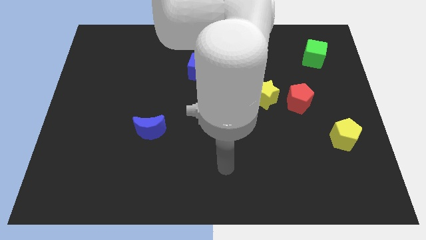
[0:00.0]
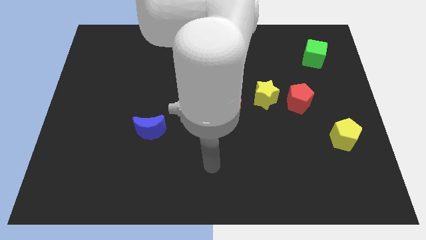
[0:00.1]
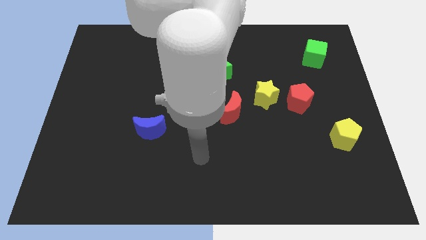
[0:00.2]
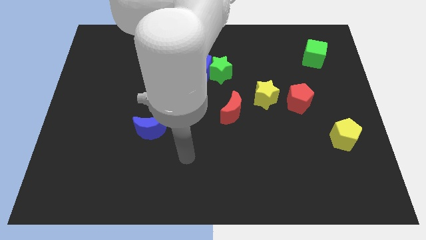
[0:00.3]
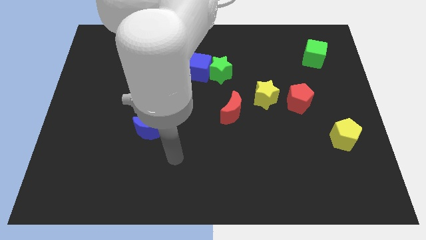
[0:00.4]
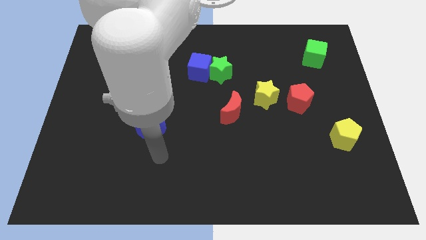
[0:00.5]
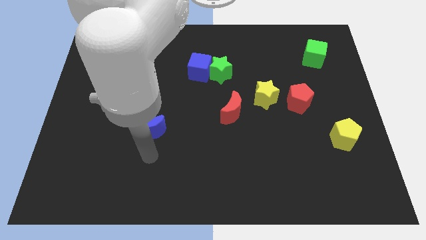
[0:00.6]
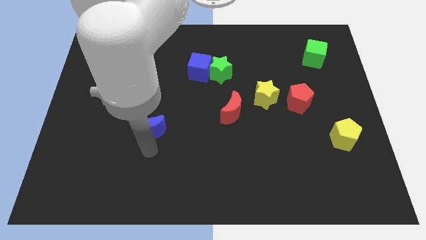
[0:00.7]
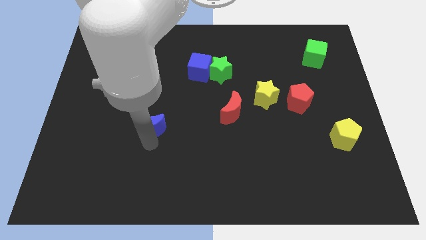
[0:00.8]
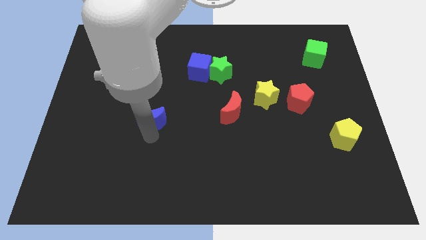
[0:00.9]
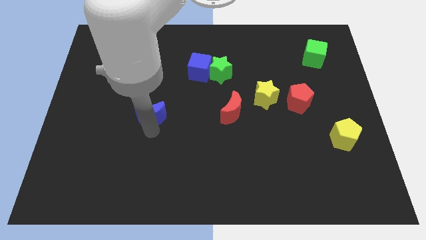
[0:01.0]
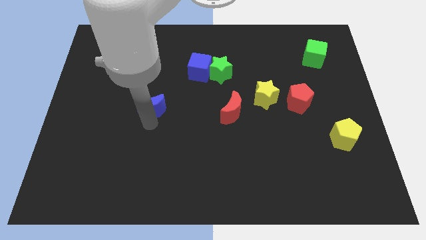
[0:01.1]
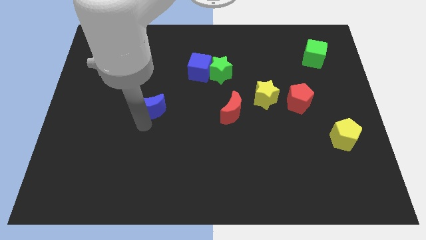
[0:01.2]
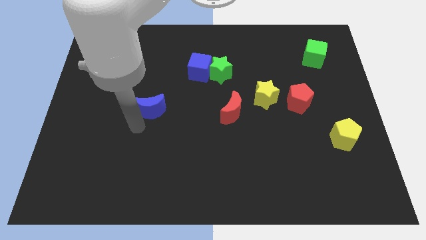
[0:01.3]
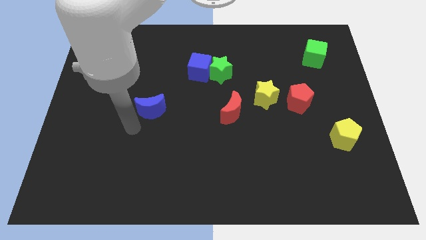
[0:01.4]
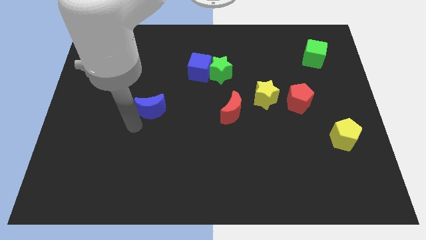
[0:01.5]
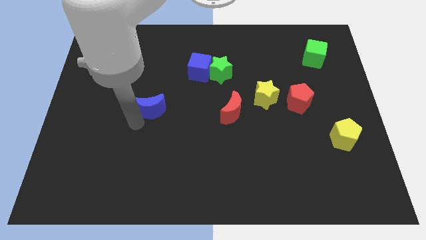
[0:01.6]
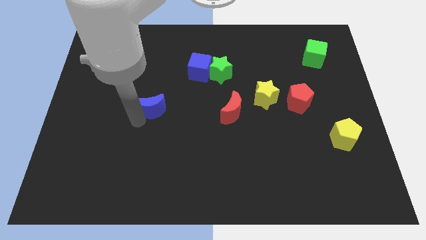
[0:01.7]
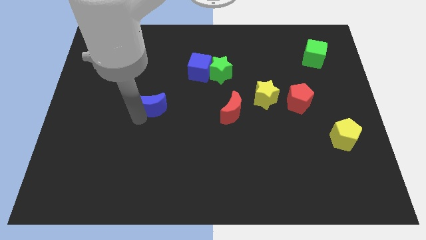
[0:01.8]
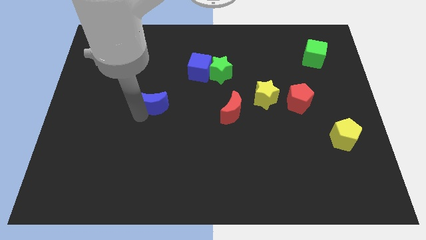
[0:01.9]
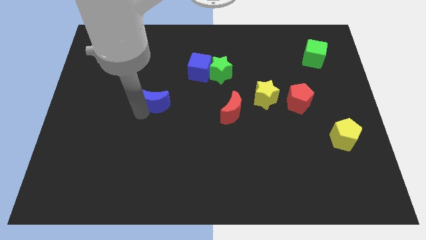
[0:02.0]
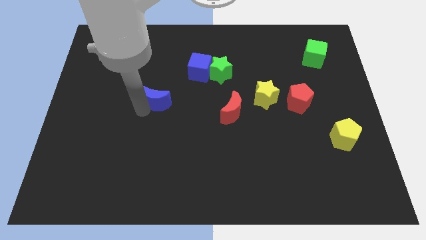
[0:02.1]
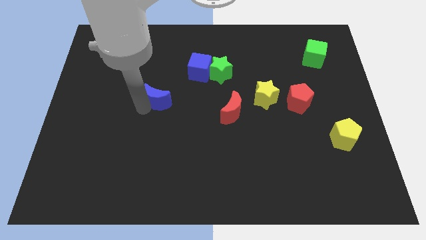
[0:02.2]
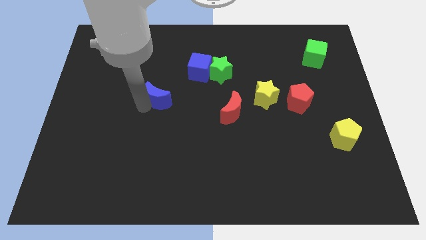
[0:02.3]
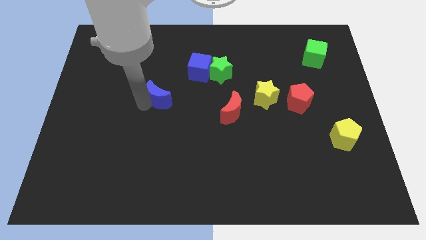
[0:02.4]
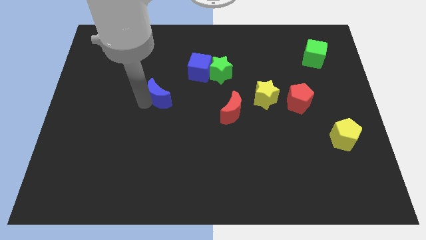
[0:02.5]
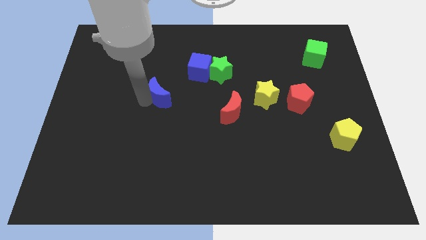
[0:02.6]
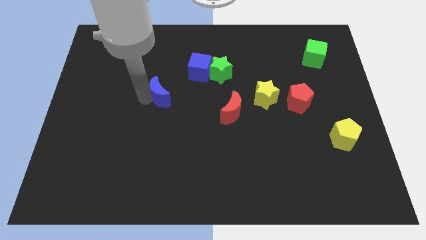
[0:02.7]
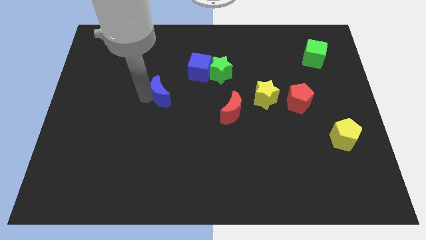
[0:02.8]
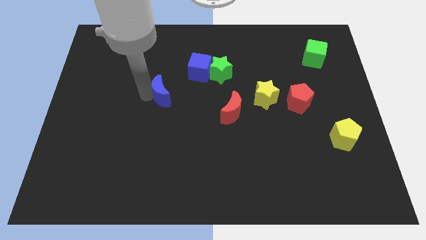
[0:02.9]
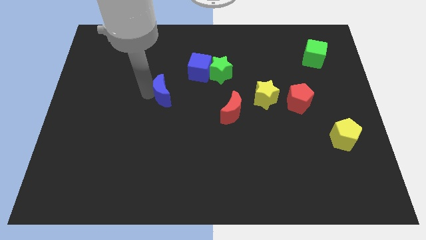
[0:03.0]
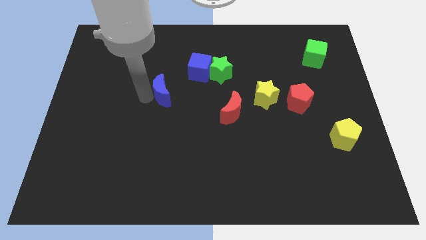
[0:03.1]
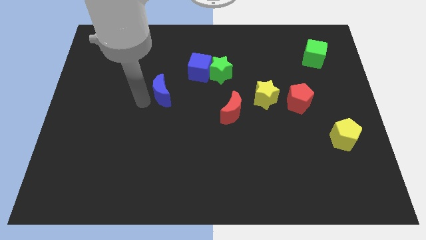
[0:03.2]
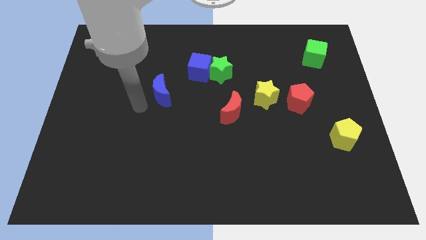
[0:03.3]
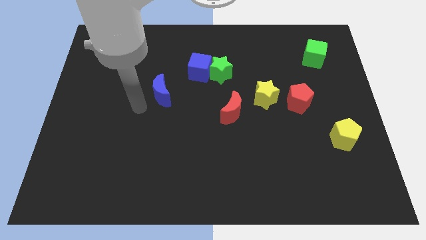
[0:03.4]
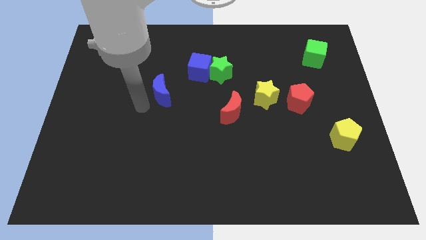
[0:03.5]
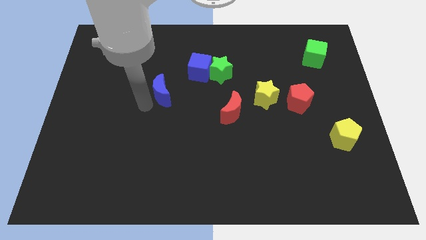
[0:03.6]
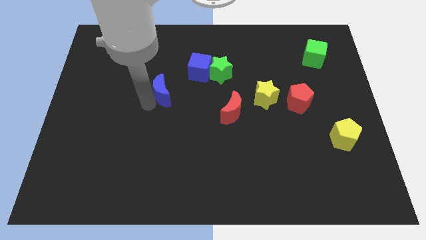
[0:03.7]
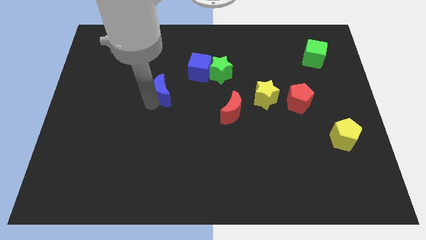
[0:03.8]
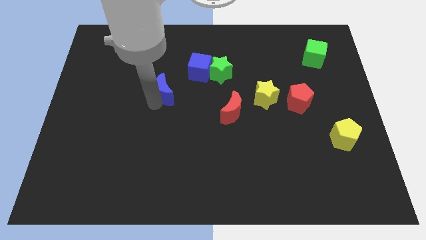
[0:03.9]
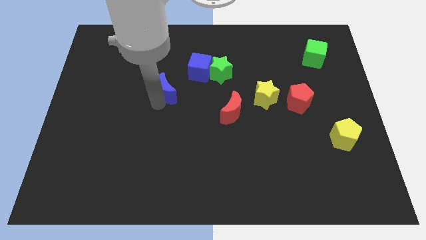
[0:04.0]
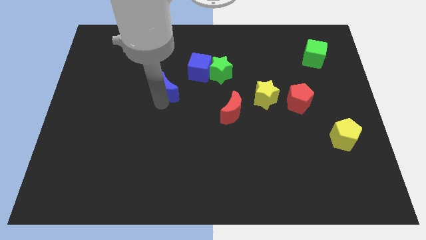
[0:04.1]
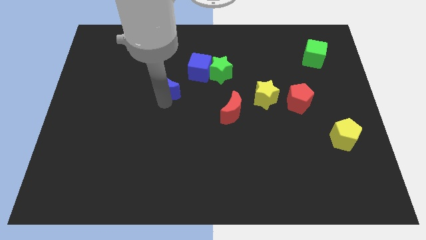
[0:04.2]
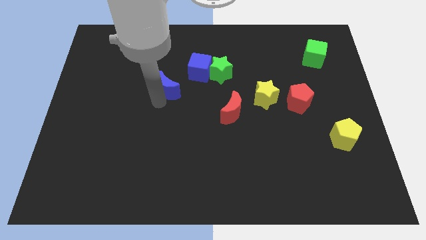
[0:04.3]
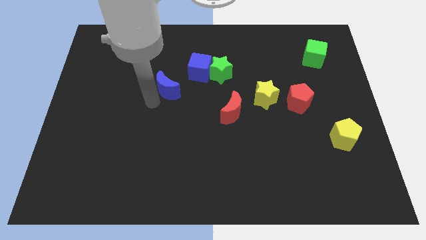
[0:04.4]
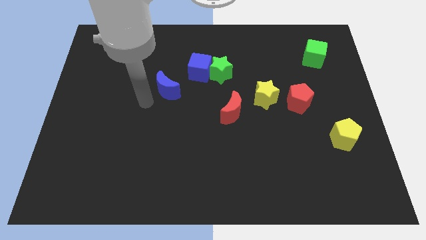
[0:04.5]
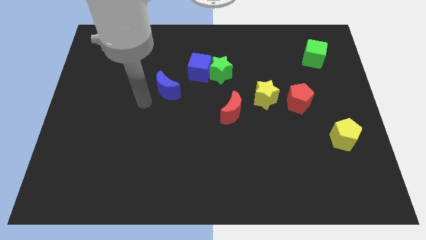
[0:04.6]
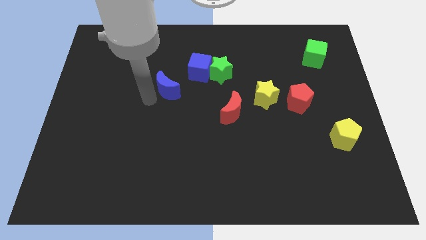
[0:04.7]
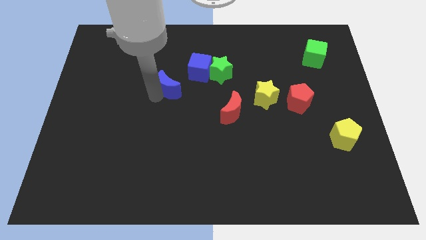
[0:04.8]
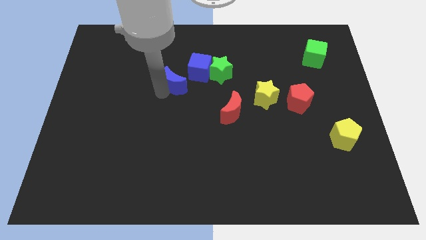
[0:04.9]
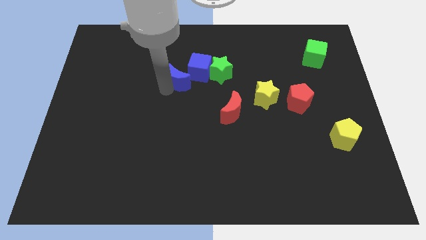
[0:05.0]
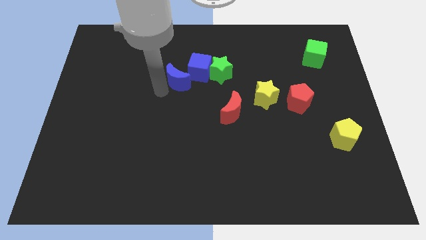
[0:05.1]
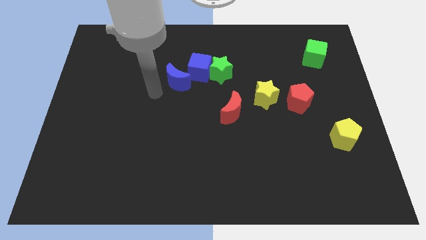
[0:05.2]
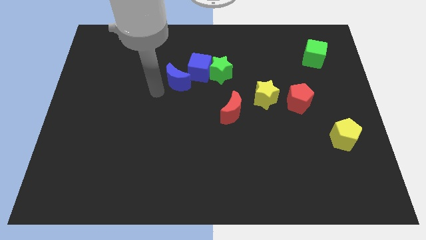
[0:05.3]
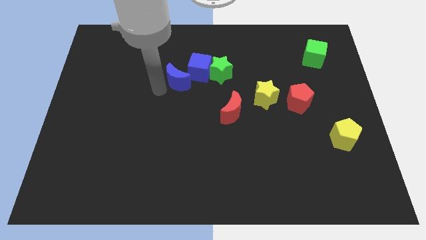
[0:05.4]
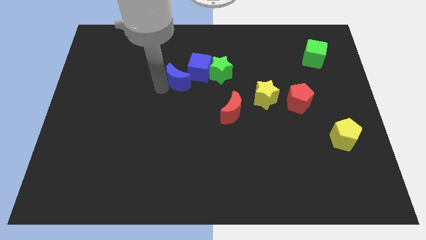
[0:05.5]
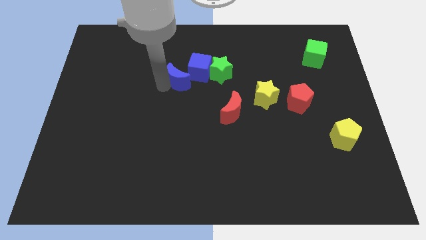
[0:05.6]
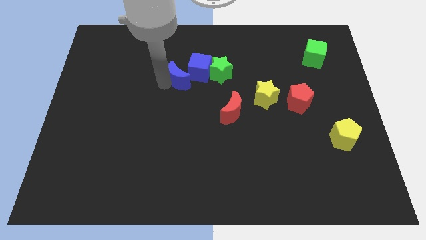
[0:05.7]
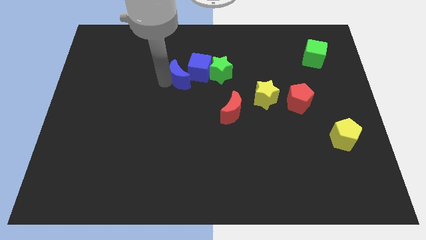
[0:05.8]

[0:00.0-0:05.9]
push the blue moon to the blue cube

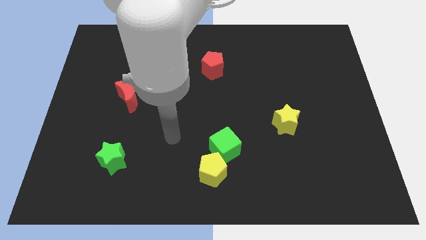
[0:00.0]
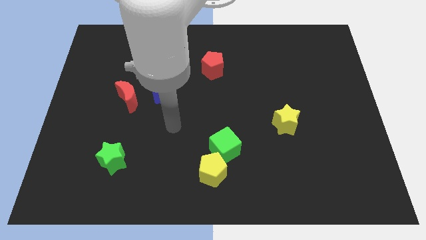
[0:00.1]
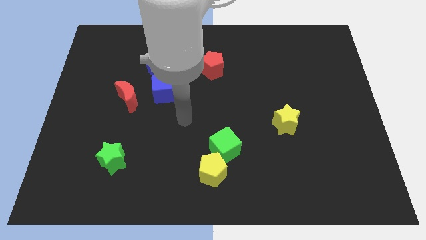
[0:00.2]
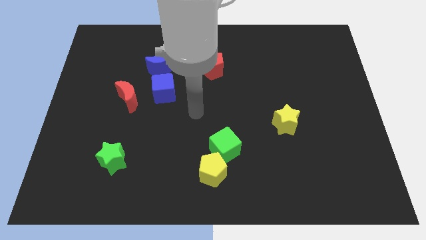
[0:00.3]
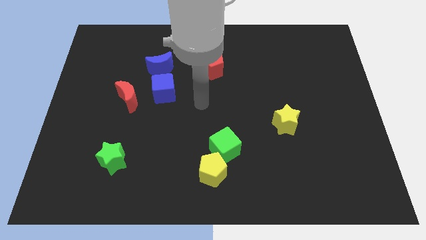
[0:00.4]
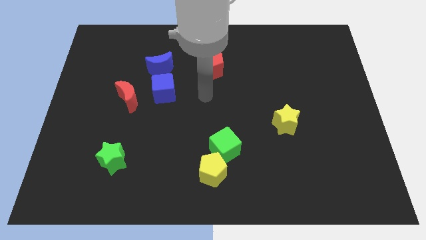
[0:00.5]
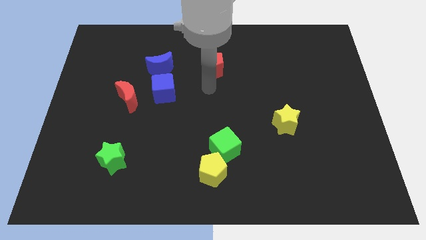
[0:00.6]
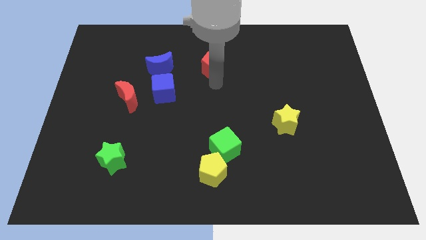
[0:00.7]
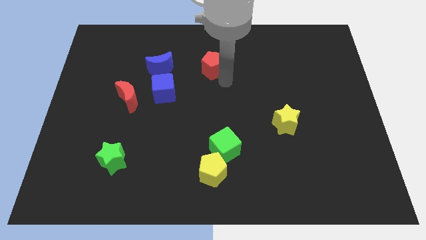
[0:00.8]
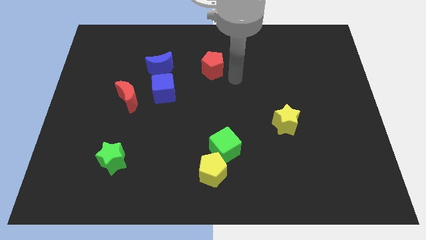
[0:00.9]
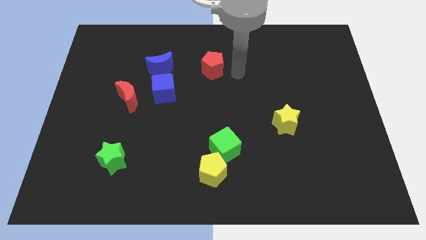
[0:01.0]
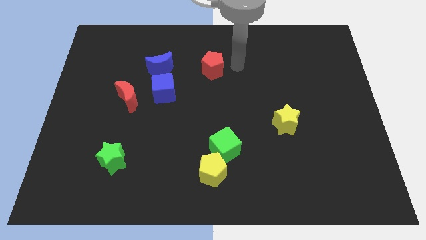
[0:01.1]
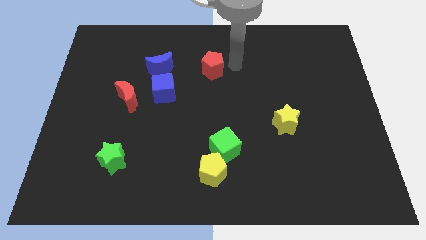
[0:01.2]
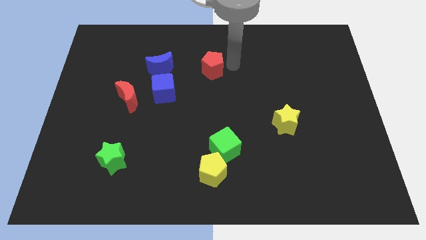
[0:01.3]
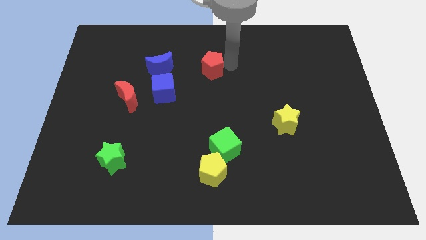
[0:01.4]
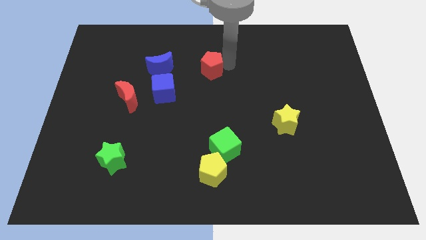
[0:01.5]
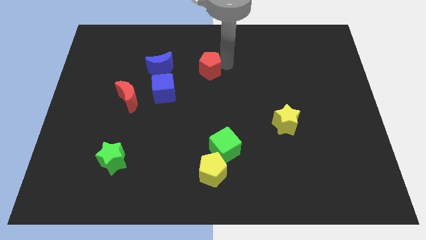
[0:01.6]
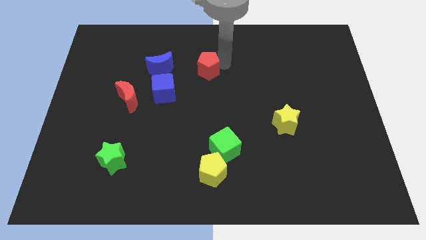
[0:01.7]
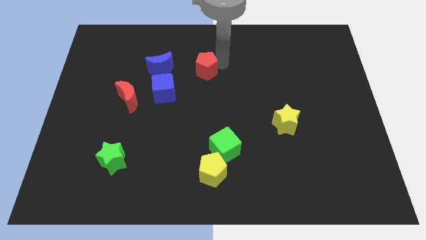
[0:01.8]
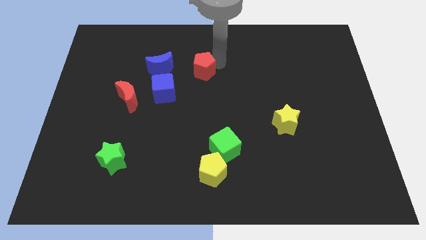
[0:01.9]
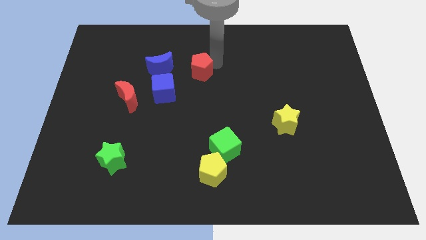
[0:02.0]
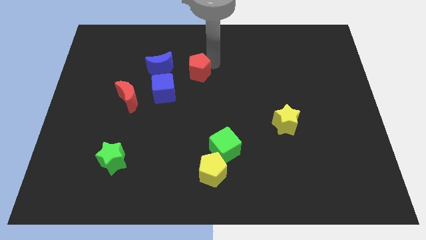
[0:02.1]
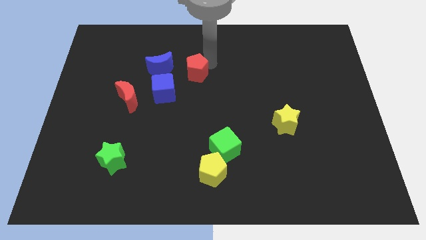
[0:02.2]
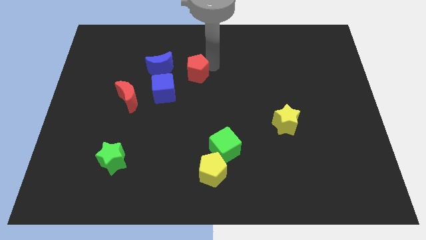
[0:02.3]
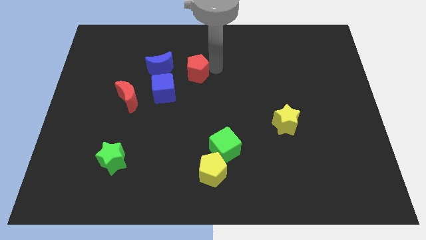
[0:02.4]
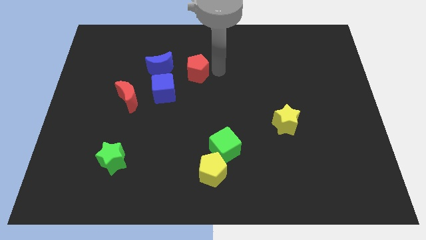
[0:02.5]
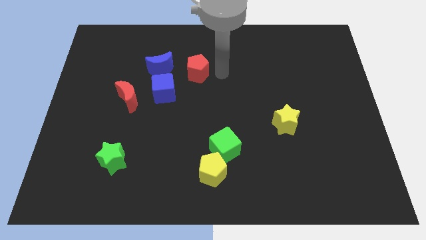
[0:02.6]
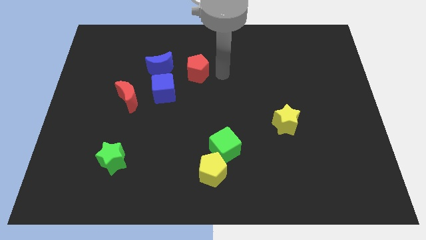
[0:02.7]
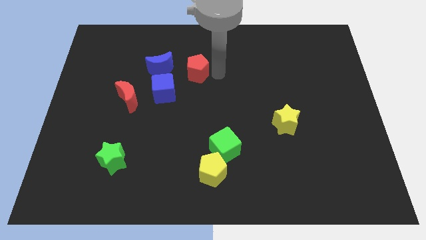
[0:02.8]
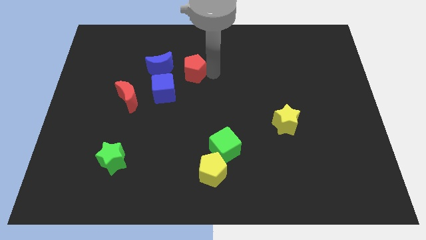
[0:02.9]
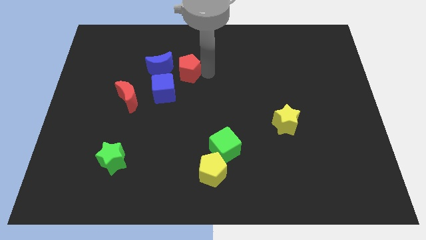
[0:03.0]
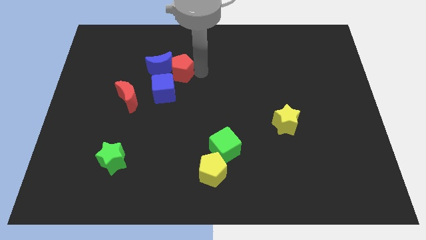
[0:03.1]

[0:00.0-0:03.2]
put the red pentagon to the blue moon
